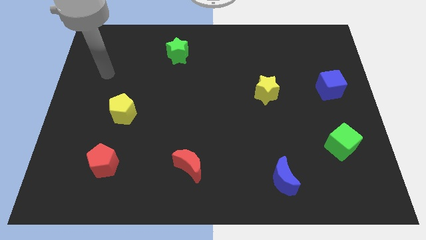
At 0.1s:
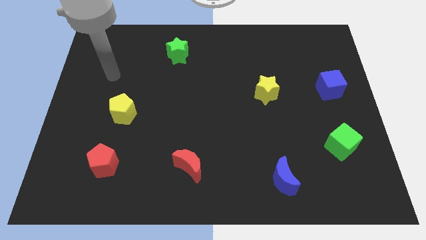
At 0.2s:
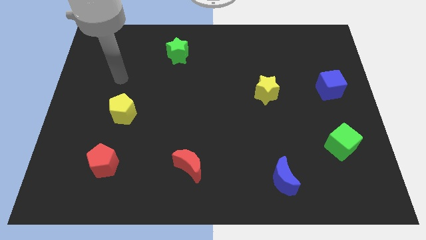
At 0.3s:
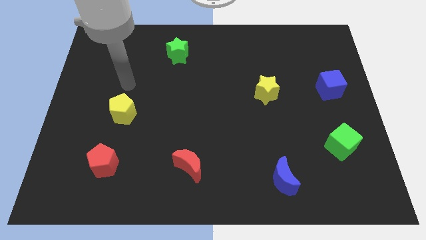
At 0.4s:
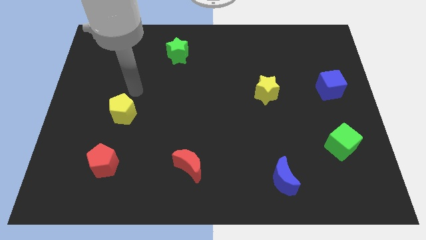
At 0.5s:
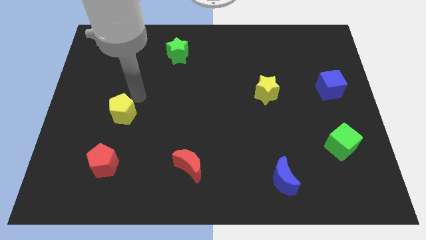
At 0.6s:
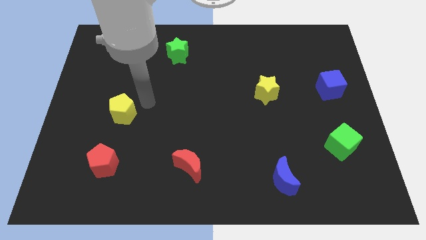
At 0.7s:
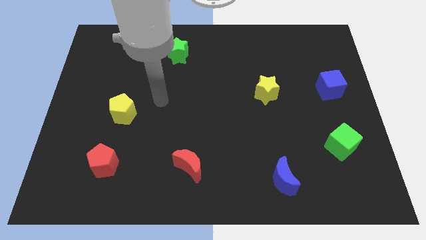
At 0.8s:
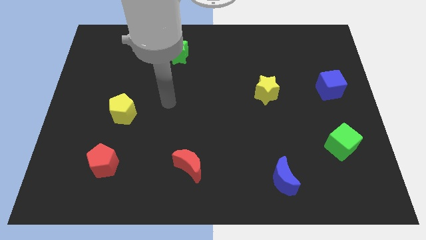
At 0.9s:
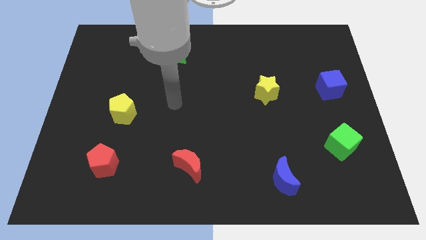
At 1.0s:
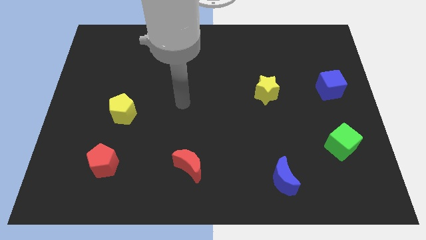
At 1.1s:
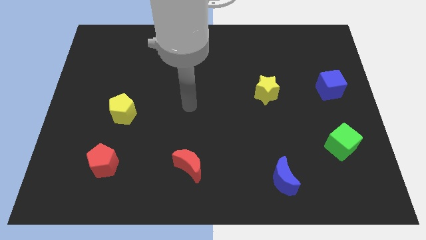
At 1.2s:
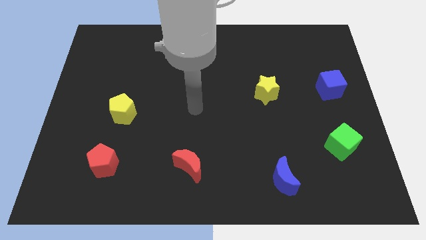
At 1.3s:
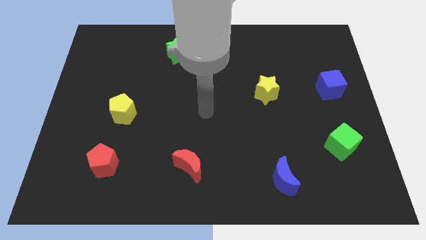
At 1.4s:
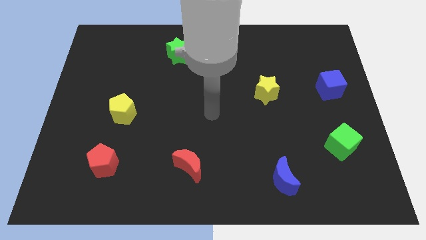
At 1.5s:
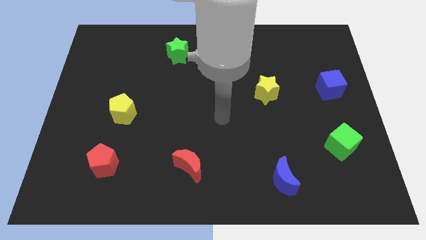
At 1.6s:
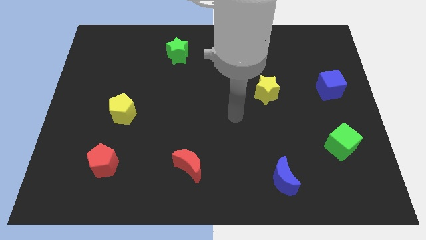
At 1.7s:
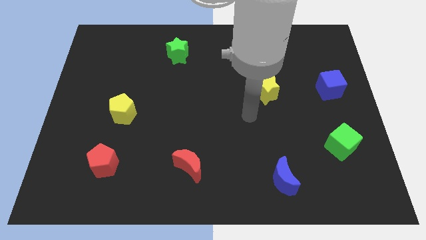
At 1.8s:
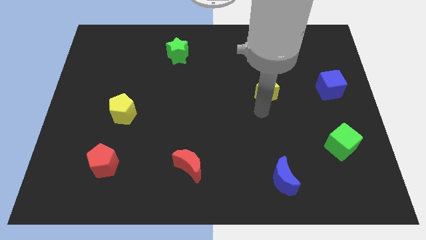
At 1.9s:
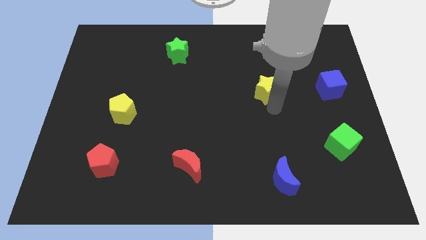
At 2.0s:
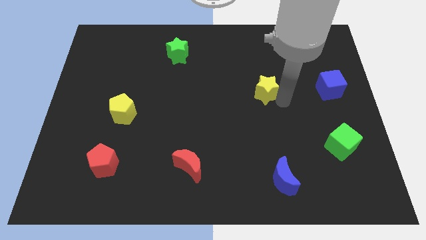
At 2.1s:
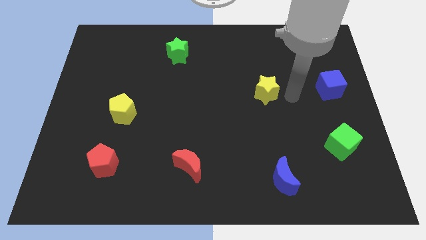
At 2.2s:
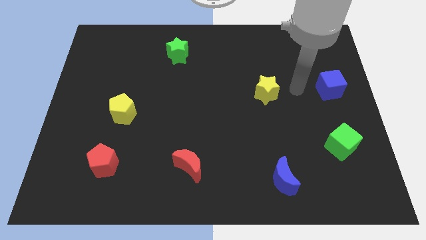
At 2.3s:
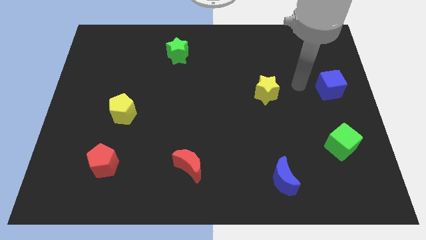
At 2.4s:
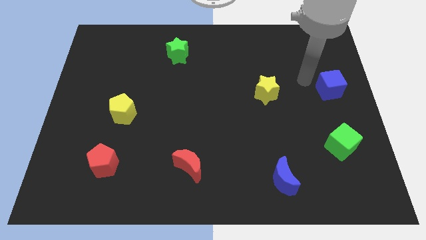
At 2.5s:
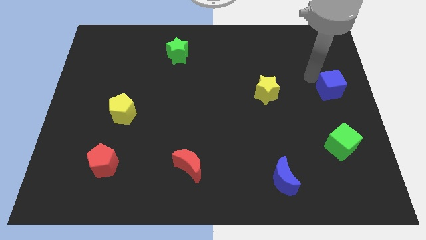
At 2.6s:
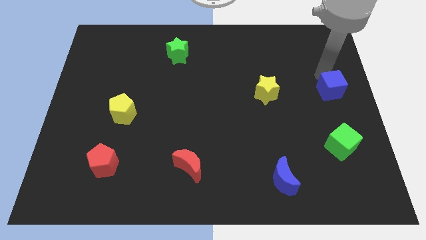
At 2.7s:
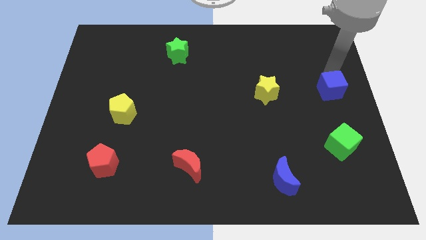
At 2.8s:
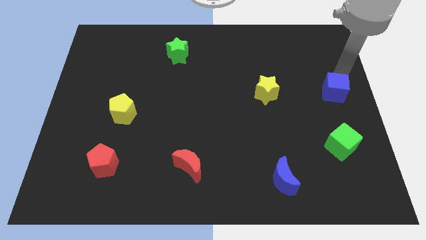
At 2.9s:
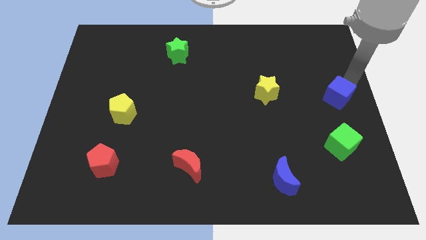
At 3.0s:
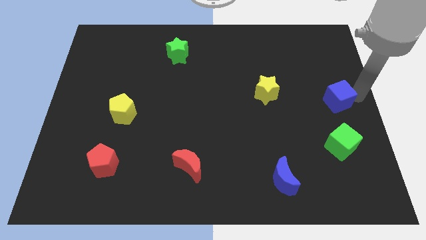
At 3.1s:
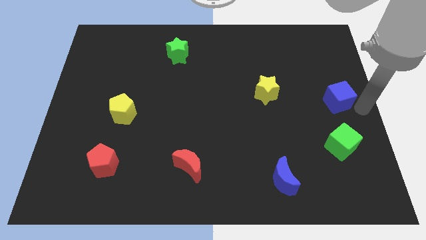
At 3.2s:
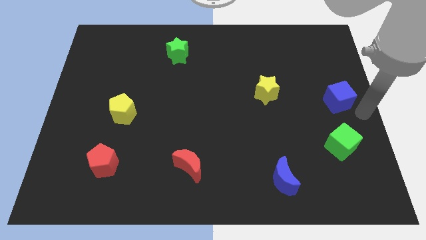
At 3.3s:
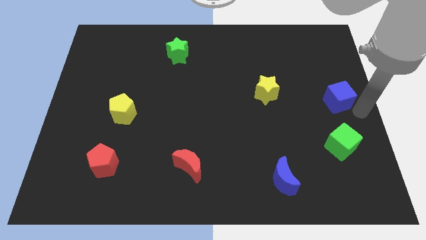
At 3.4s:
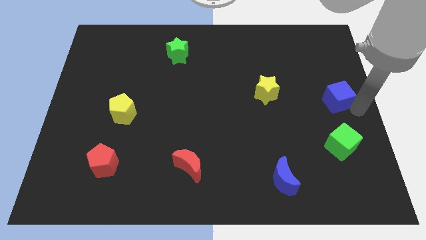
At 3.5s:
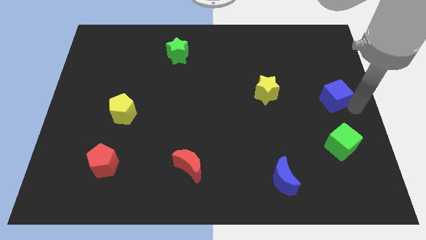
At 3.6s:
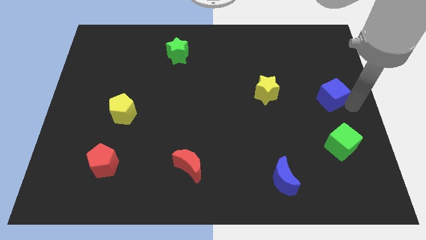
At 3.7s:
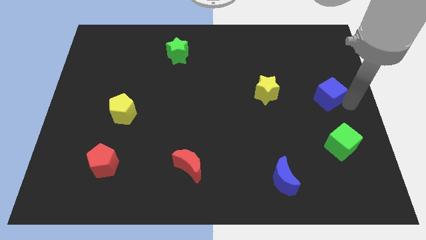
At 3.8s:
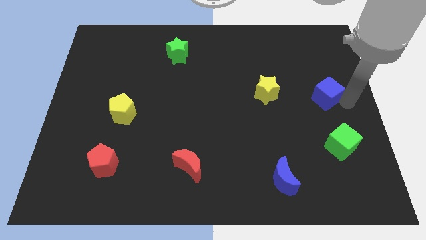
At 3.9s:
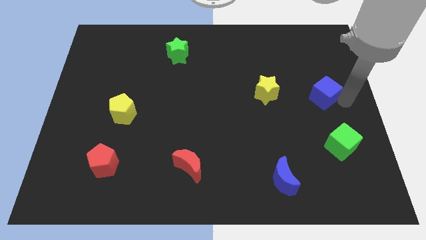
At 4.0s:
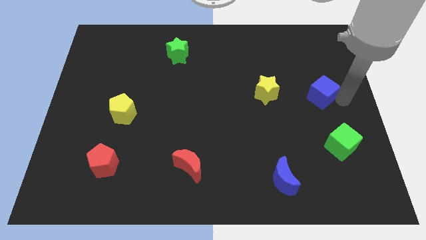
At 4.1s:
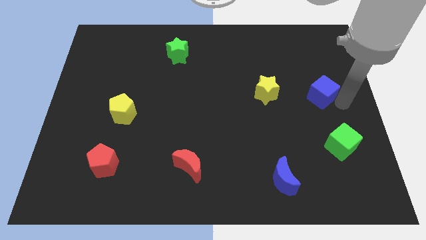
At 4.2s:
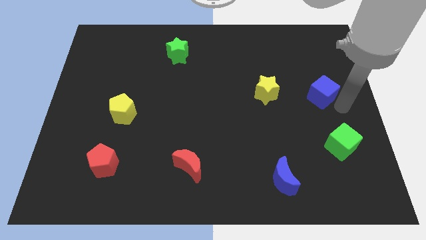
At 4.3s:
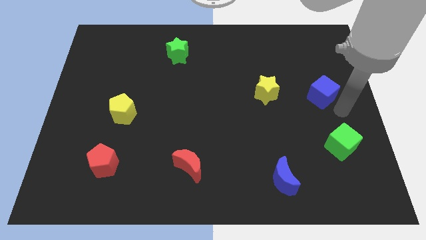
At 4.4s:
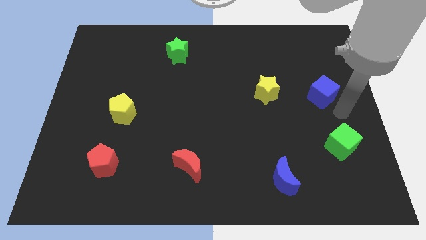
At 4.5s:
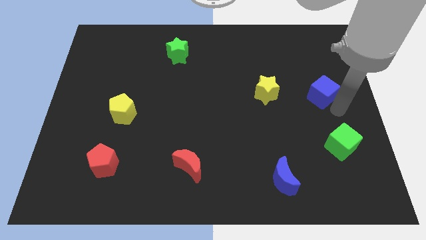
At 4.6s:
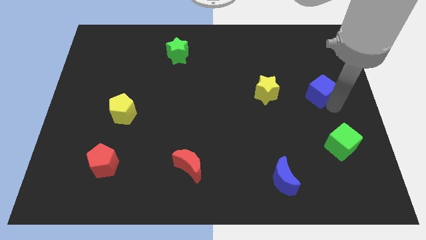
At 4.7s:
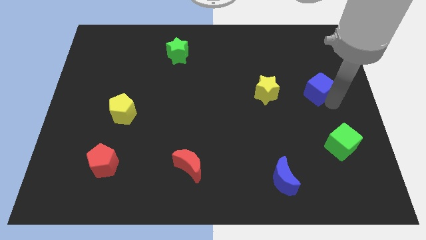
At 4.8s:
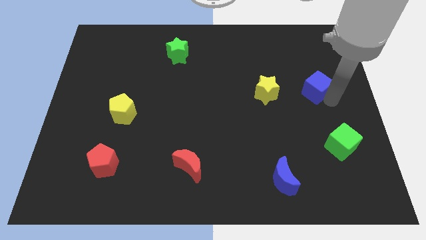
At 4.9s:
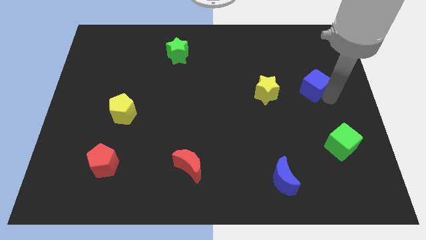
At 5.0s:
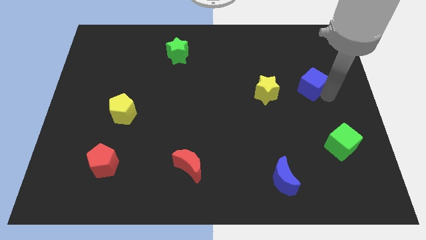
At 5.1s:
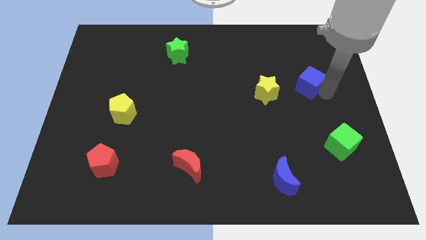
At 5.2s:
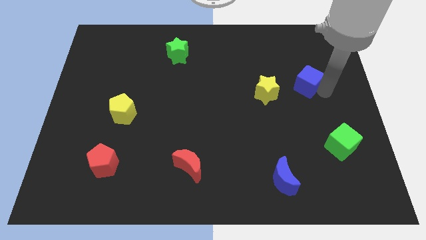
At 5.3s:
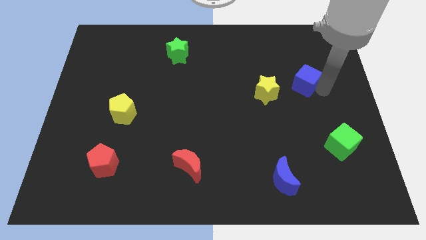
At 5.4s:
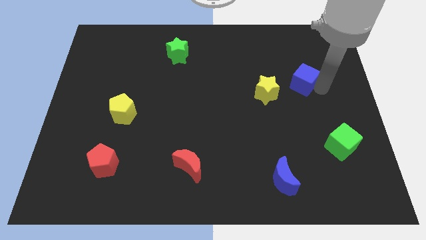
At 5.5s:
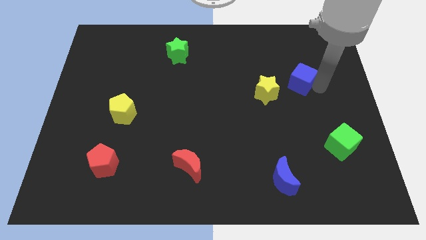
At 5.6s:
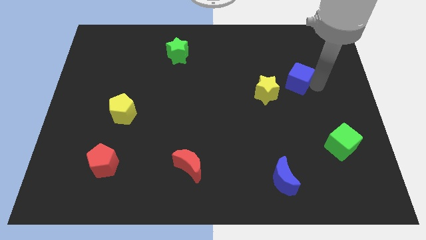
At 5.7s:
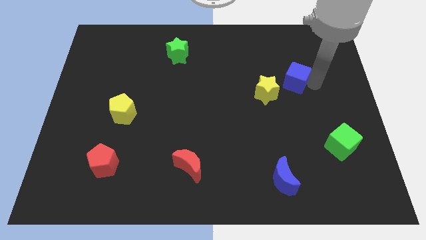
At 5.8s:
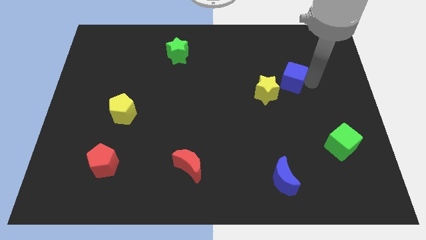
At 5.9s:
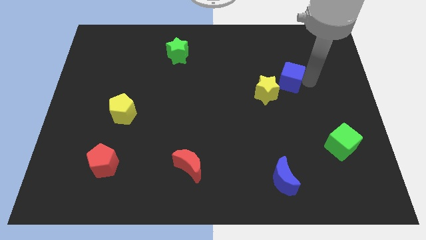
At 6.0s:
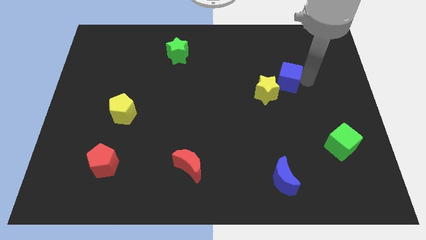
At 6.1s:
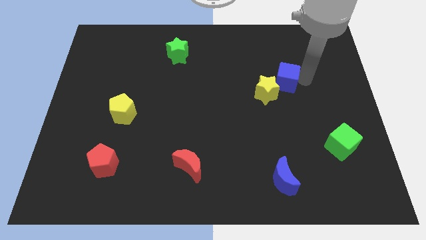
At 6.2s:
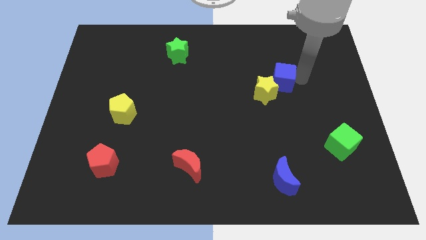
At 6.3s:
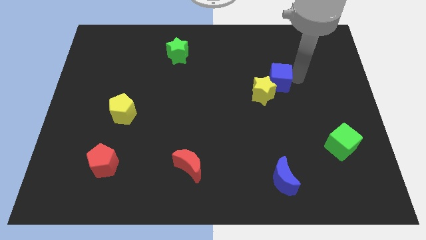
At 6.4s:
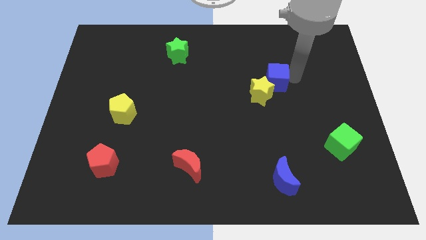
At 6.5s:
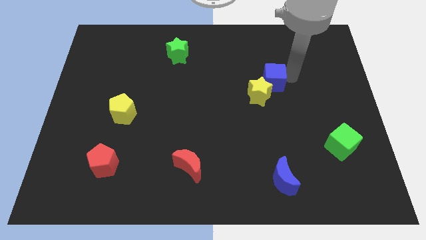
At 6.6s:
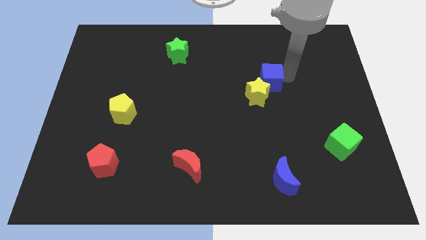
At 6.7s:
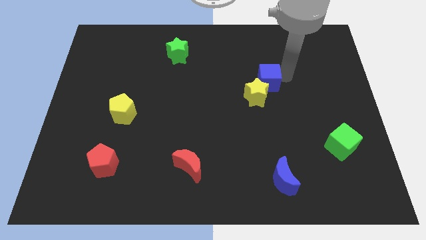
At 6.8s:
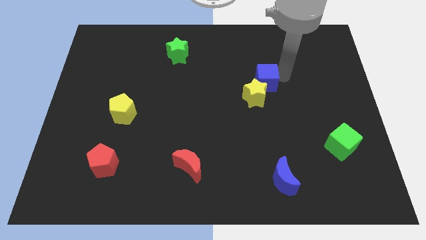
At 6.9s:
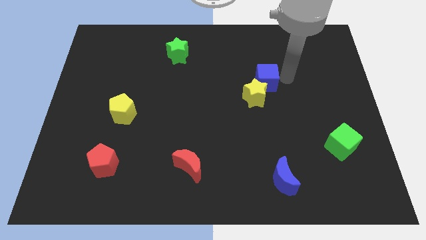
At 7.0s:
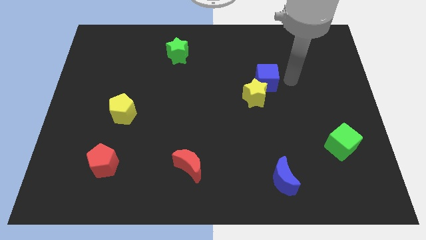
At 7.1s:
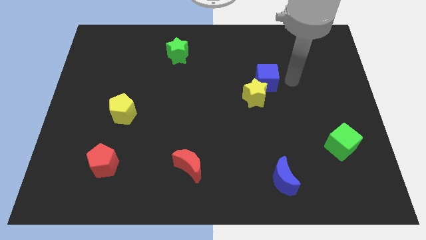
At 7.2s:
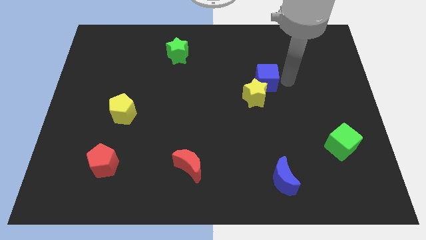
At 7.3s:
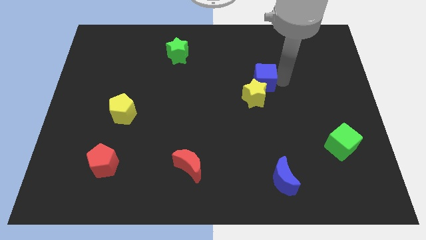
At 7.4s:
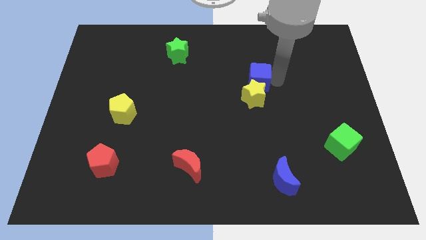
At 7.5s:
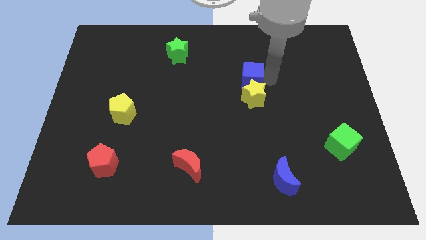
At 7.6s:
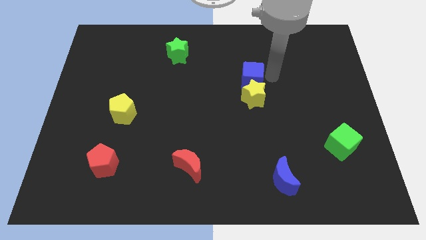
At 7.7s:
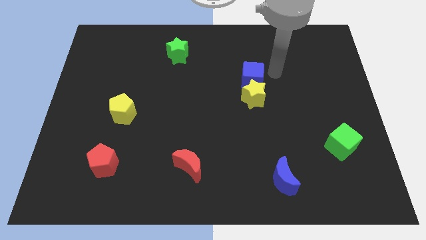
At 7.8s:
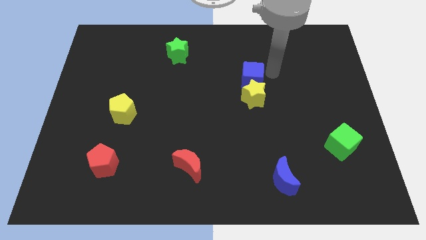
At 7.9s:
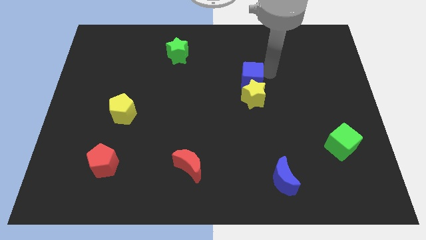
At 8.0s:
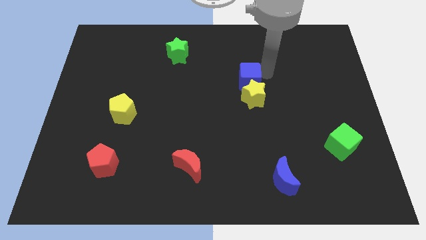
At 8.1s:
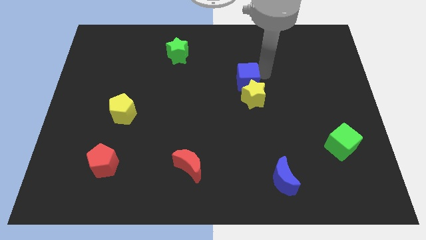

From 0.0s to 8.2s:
push the blue cube left

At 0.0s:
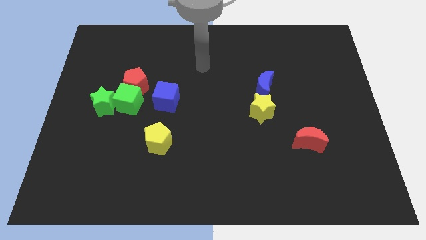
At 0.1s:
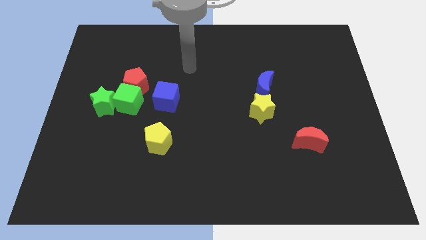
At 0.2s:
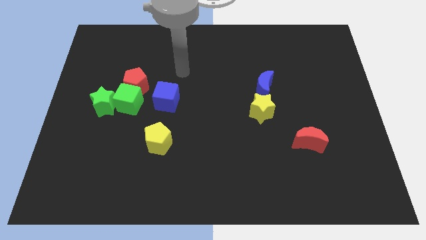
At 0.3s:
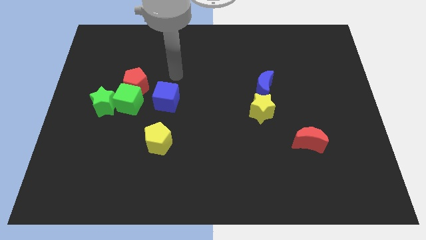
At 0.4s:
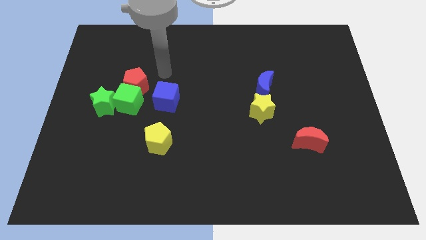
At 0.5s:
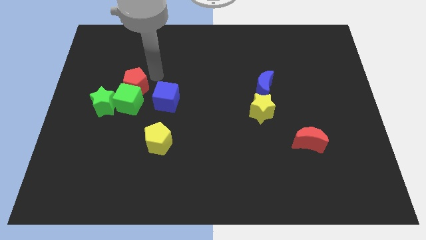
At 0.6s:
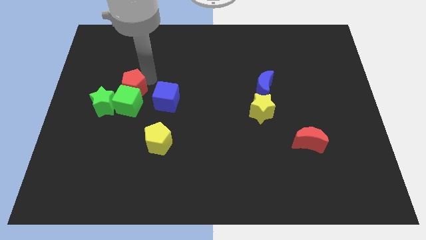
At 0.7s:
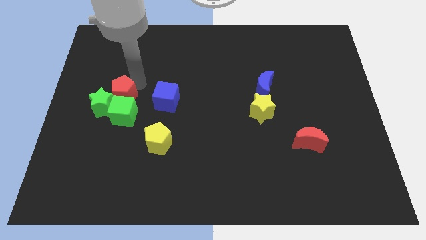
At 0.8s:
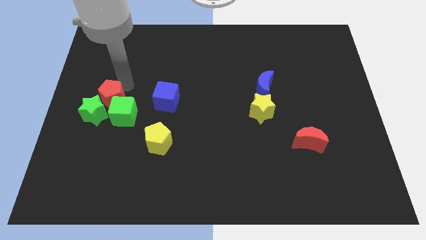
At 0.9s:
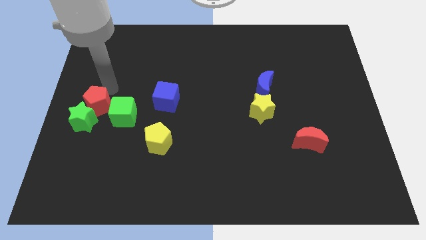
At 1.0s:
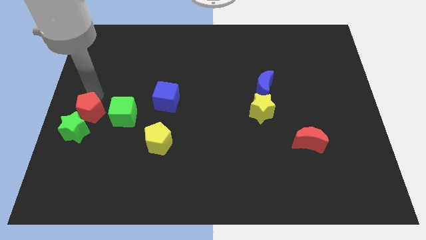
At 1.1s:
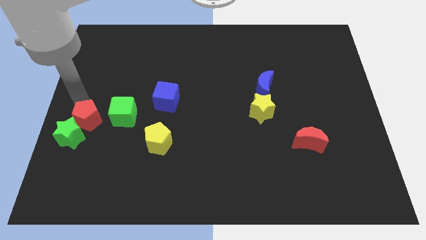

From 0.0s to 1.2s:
move the green star down a bit
